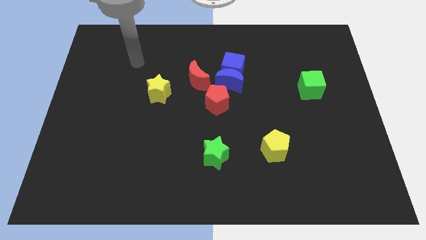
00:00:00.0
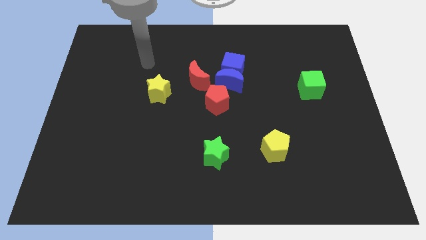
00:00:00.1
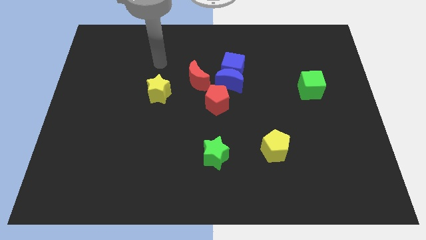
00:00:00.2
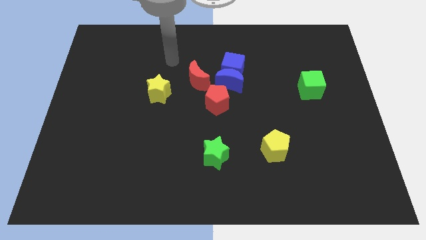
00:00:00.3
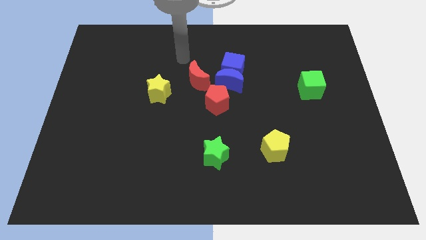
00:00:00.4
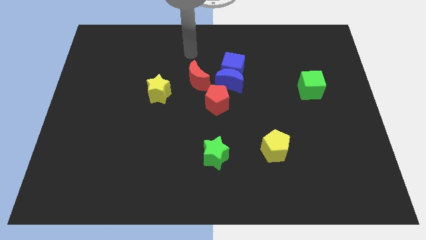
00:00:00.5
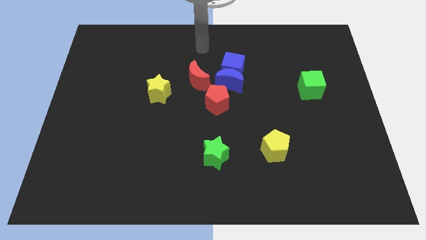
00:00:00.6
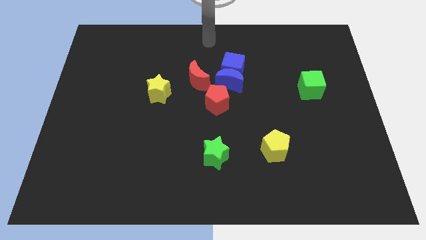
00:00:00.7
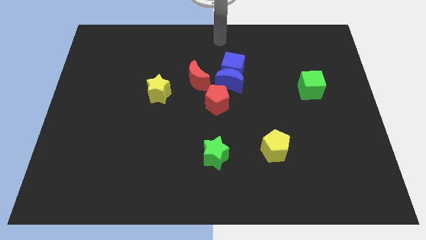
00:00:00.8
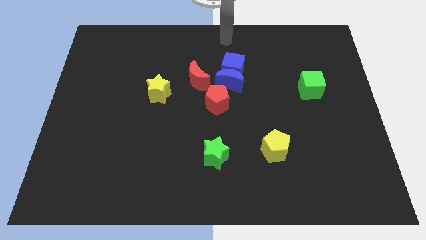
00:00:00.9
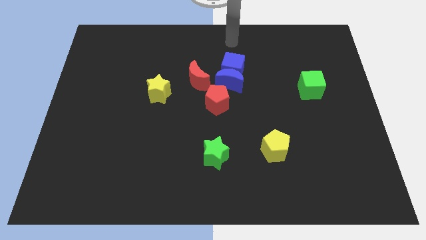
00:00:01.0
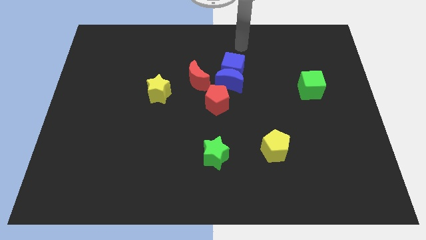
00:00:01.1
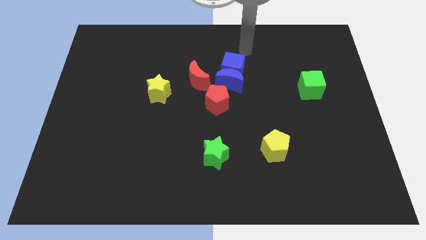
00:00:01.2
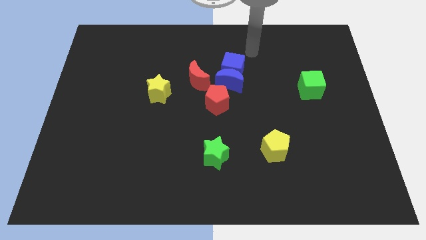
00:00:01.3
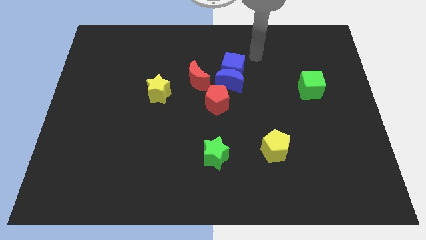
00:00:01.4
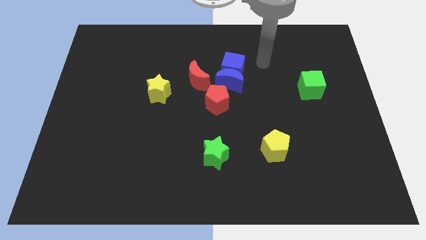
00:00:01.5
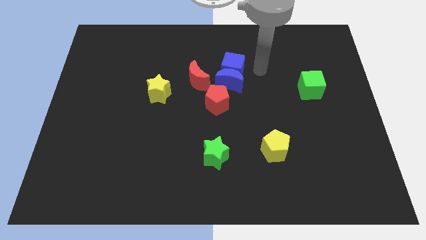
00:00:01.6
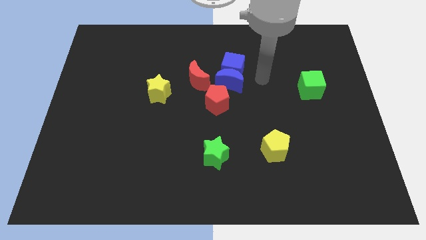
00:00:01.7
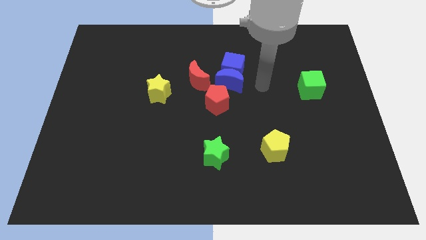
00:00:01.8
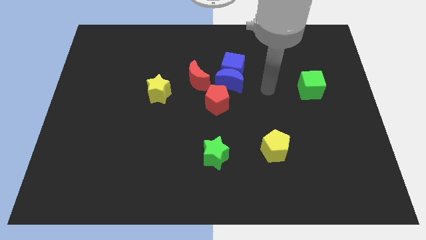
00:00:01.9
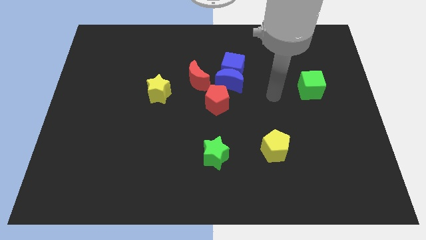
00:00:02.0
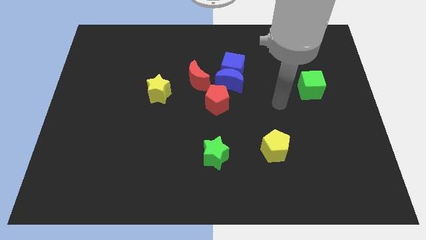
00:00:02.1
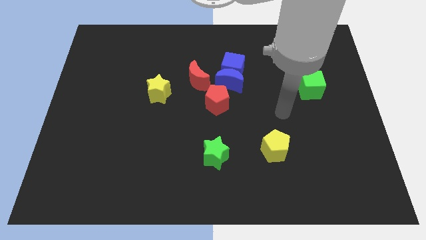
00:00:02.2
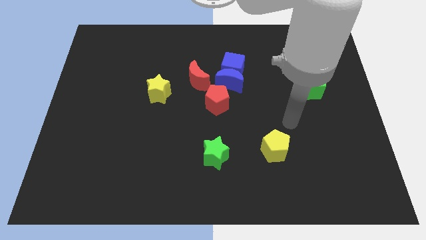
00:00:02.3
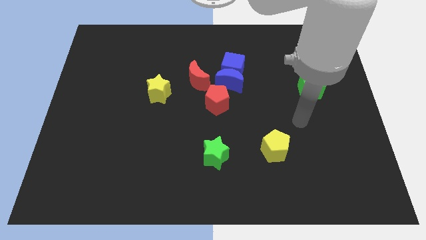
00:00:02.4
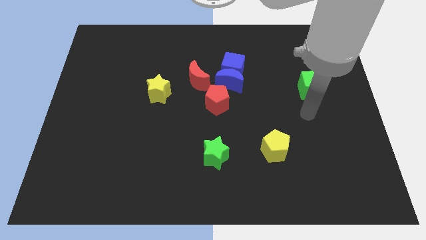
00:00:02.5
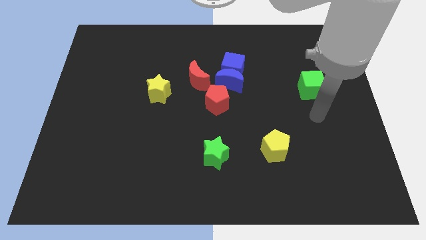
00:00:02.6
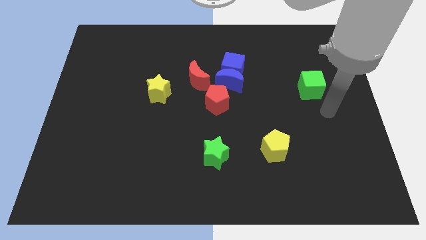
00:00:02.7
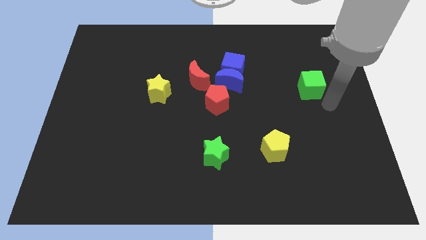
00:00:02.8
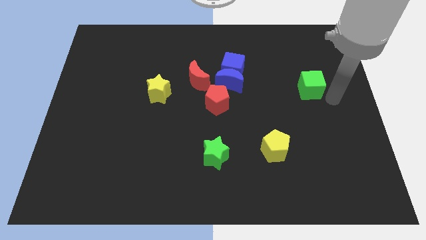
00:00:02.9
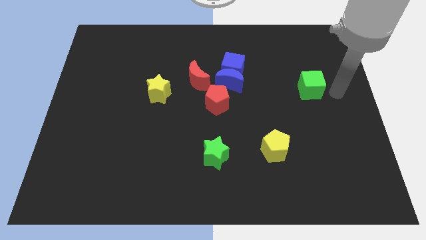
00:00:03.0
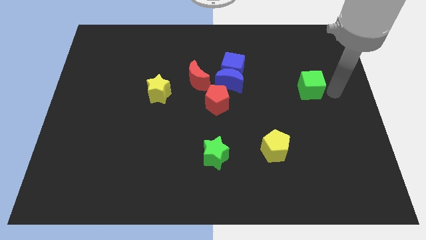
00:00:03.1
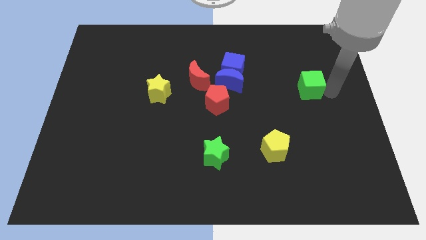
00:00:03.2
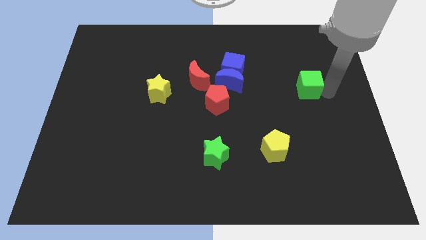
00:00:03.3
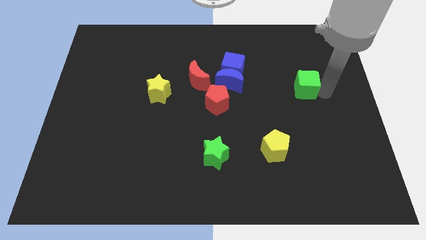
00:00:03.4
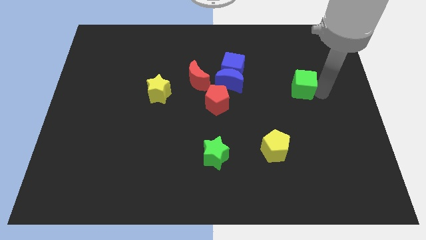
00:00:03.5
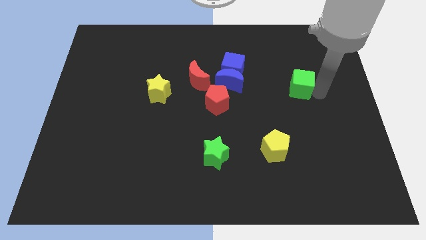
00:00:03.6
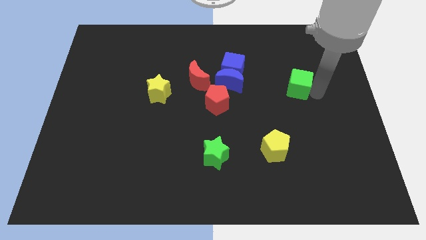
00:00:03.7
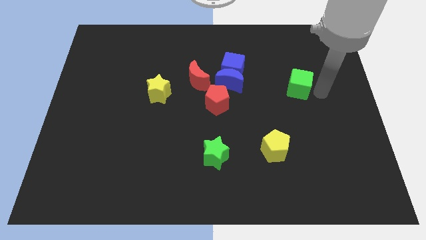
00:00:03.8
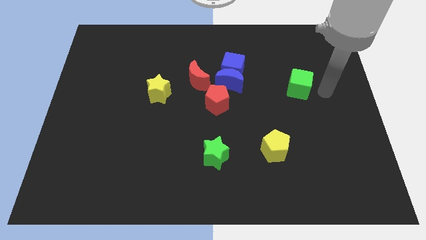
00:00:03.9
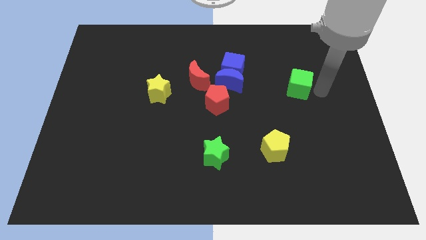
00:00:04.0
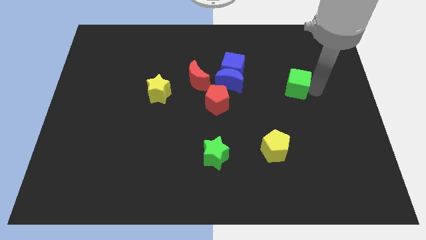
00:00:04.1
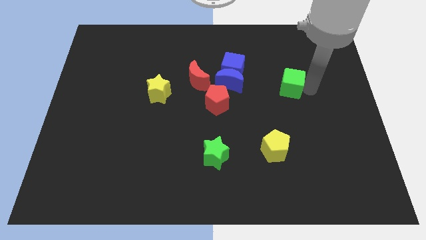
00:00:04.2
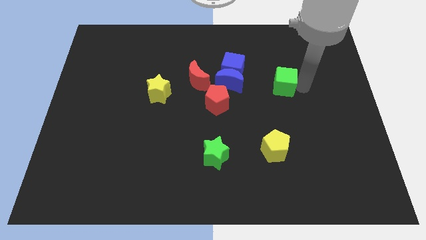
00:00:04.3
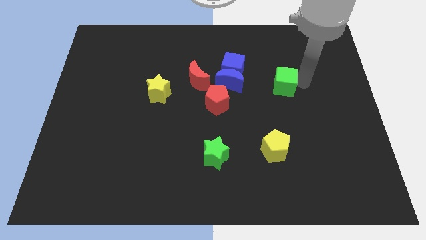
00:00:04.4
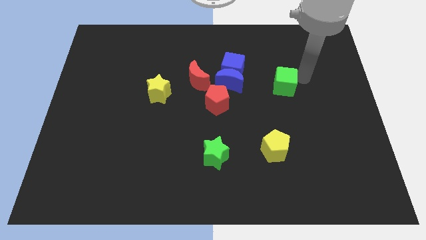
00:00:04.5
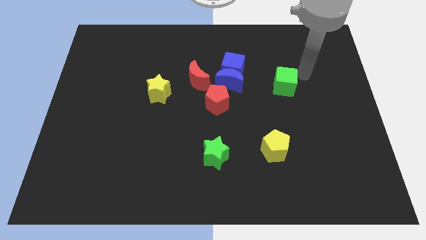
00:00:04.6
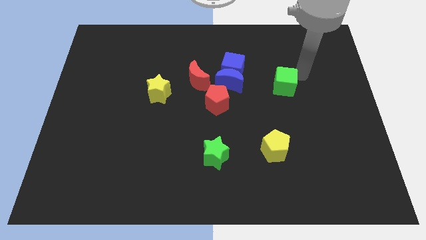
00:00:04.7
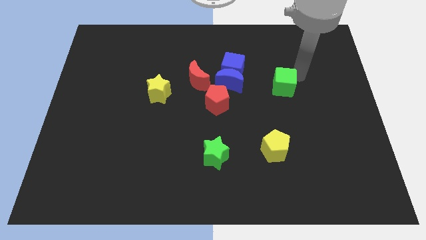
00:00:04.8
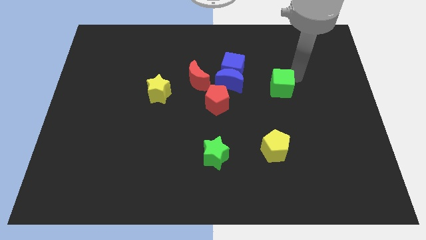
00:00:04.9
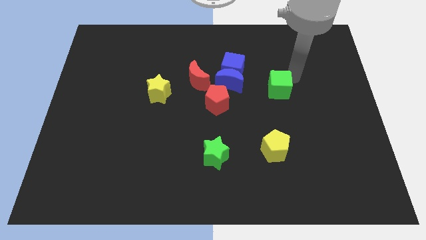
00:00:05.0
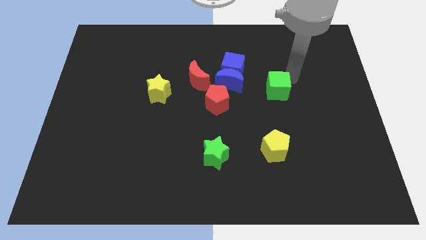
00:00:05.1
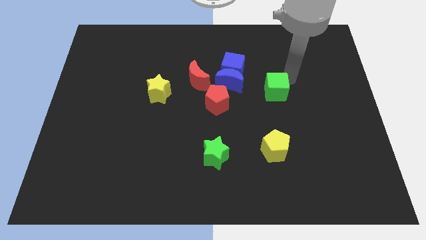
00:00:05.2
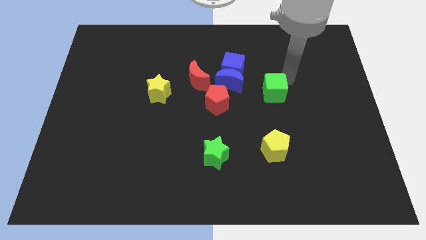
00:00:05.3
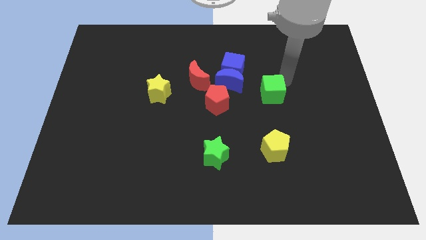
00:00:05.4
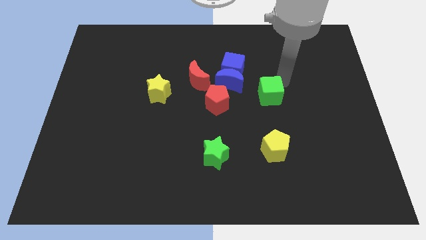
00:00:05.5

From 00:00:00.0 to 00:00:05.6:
put the green cube to the bottom right side of the blue moon

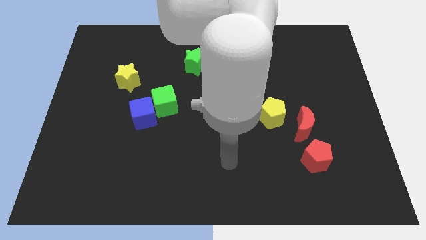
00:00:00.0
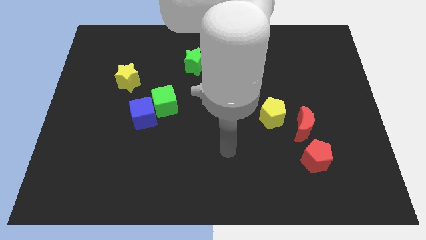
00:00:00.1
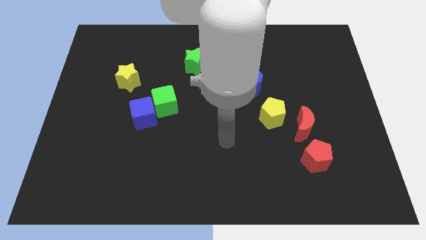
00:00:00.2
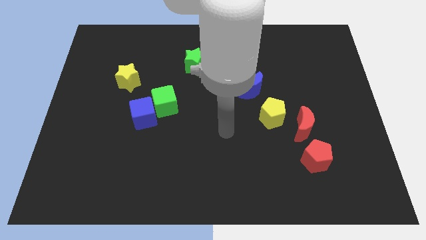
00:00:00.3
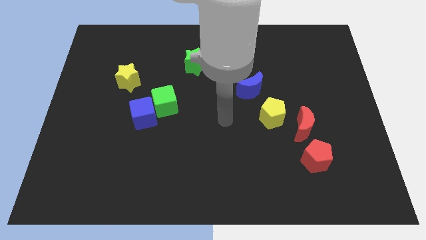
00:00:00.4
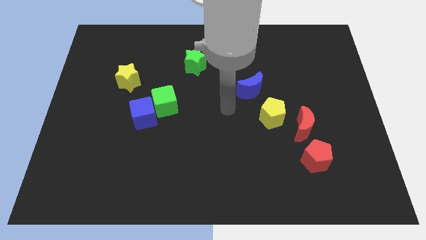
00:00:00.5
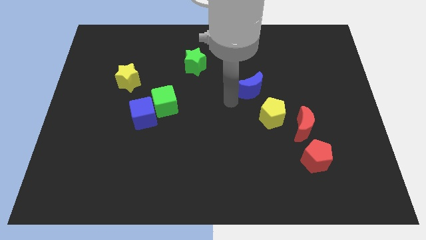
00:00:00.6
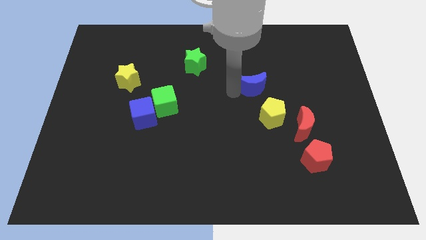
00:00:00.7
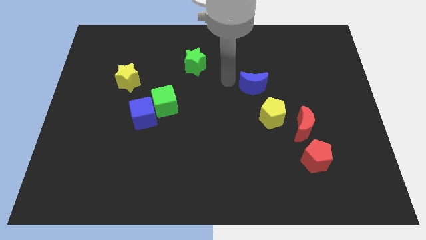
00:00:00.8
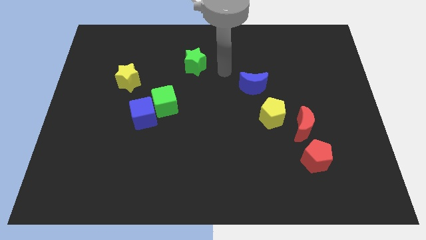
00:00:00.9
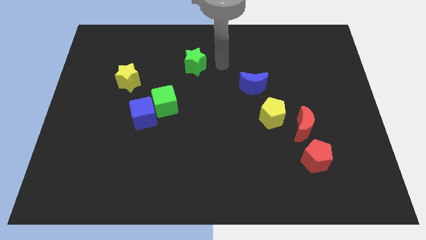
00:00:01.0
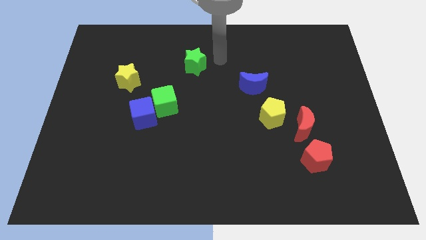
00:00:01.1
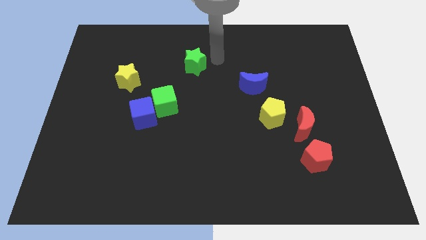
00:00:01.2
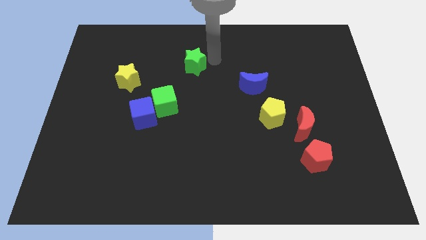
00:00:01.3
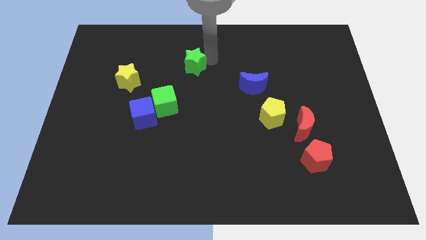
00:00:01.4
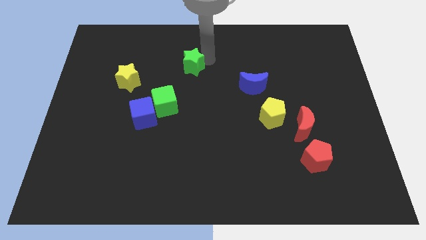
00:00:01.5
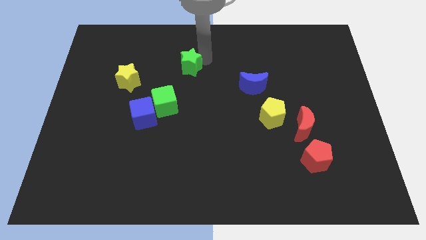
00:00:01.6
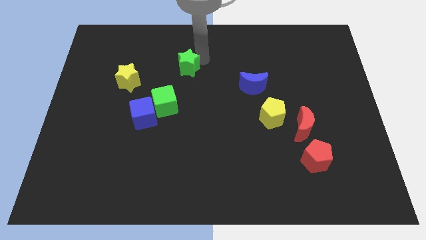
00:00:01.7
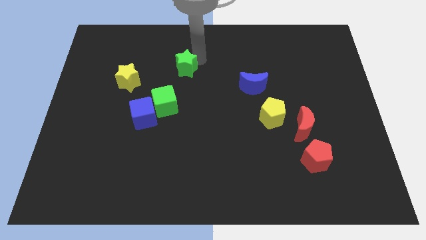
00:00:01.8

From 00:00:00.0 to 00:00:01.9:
push the green star to the top side of the green cube
